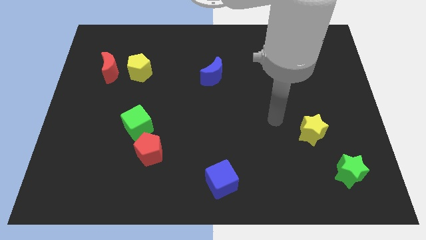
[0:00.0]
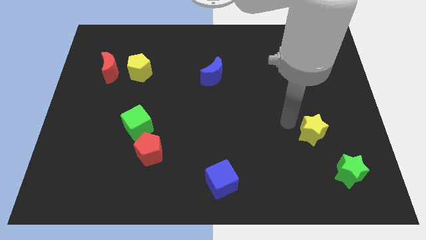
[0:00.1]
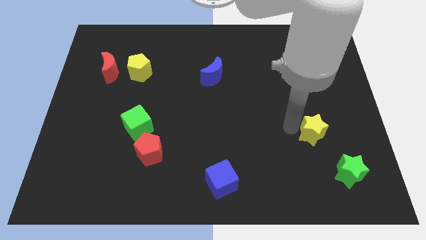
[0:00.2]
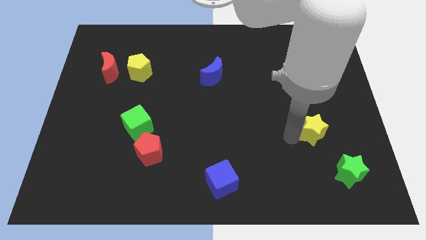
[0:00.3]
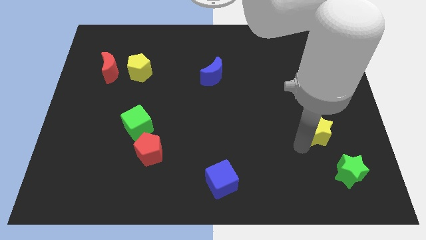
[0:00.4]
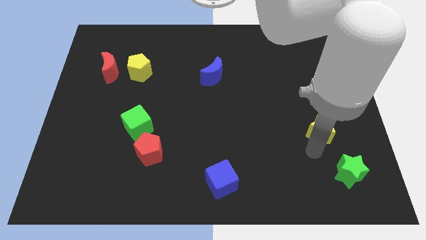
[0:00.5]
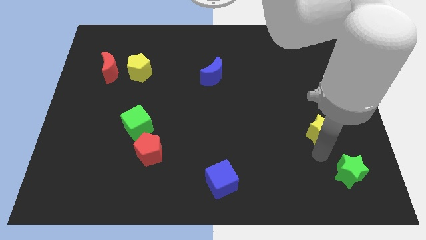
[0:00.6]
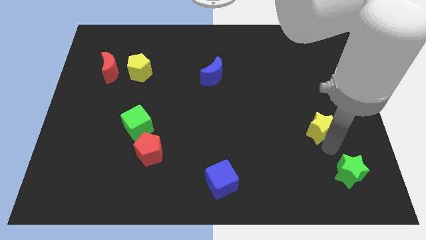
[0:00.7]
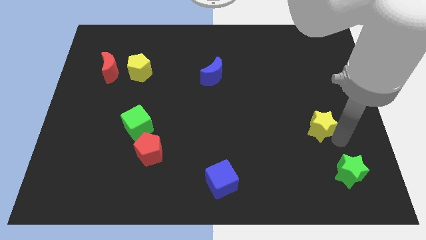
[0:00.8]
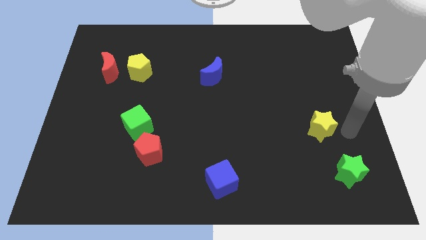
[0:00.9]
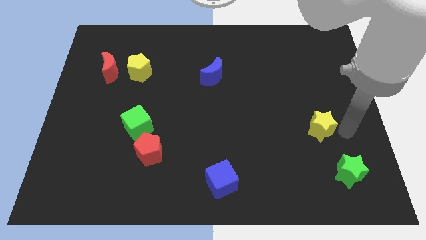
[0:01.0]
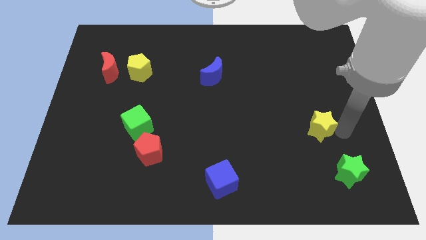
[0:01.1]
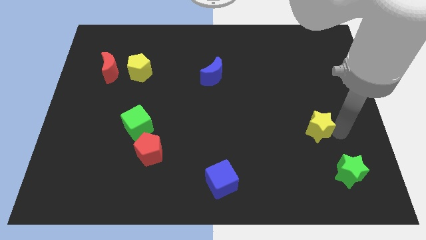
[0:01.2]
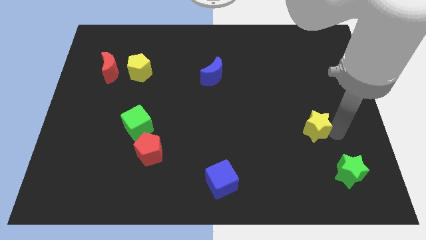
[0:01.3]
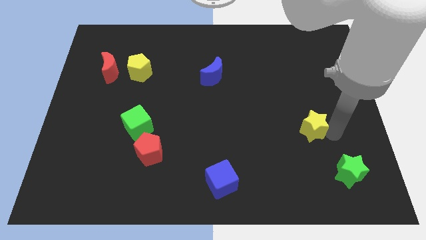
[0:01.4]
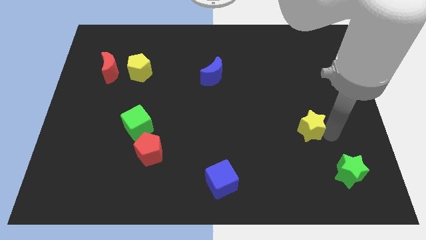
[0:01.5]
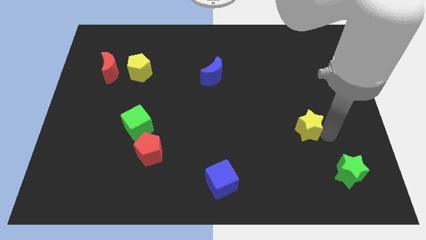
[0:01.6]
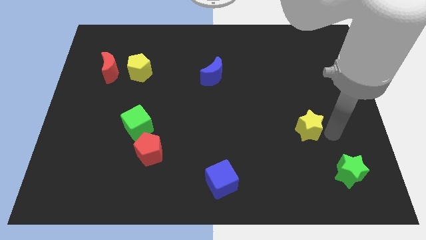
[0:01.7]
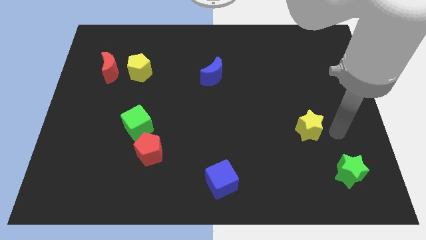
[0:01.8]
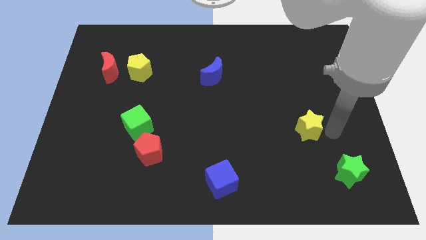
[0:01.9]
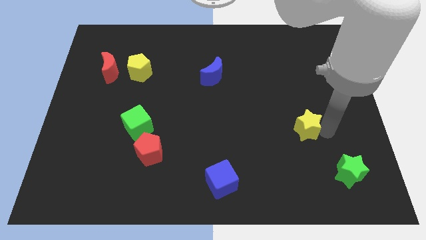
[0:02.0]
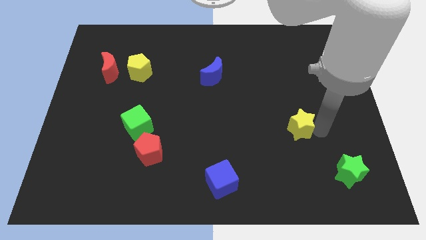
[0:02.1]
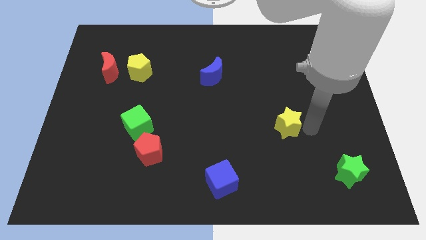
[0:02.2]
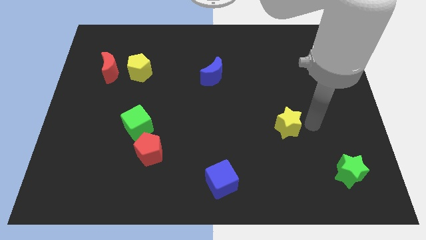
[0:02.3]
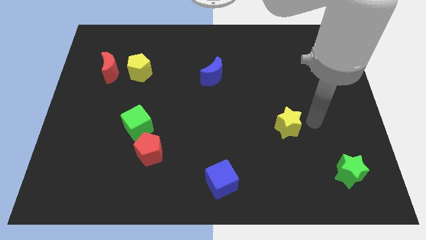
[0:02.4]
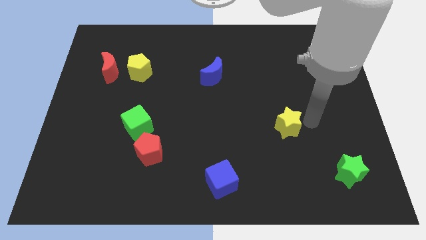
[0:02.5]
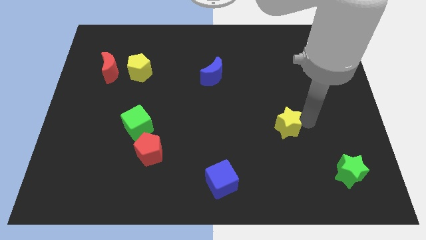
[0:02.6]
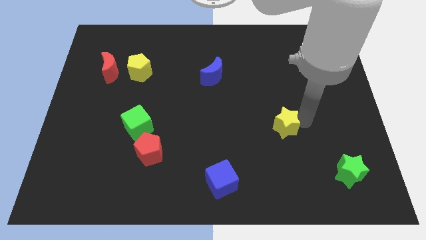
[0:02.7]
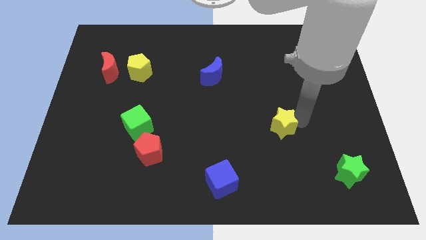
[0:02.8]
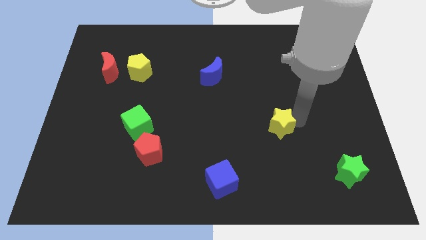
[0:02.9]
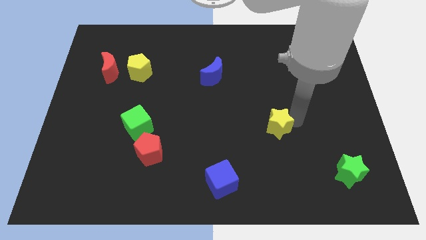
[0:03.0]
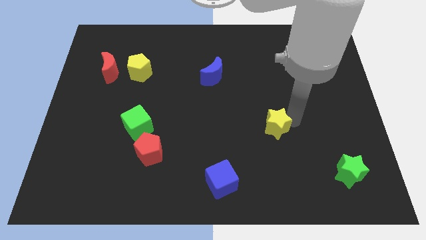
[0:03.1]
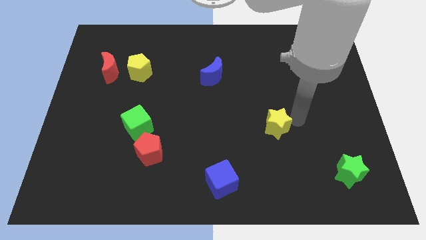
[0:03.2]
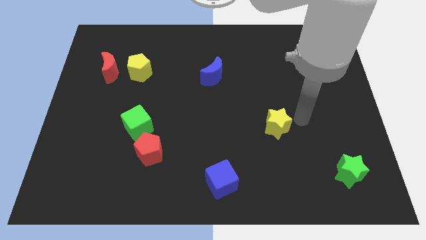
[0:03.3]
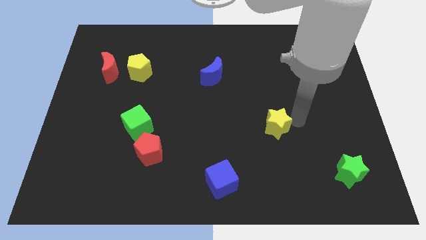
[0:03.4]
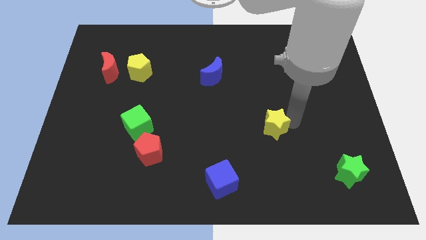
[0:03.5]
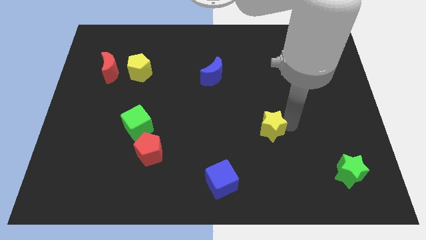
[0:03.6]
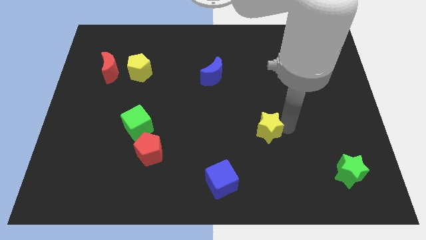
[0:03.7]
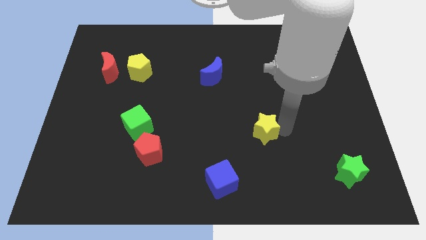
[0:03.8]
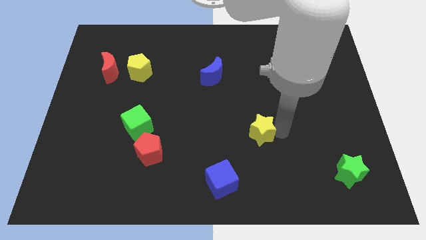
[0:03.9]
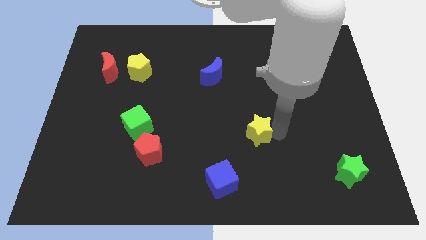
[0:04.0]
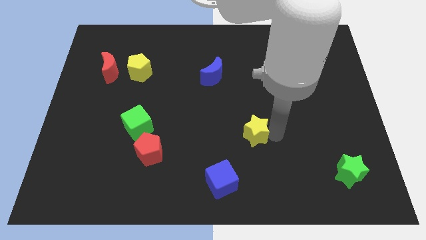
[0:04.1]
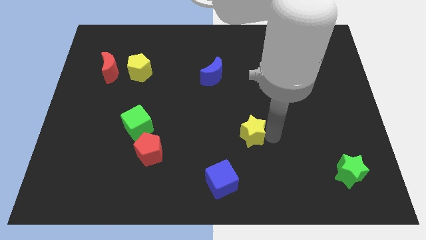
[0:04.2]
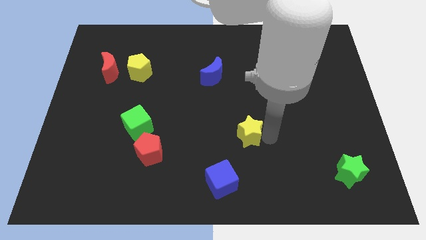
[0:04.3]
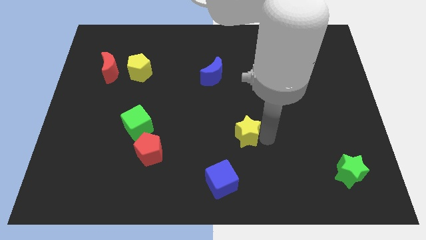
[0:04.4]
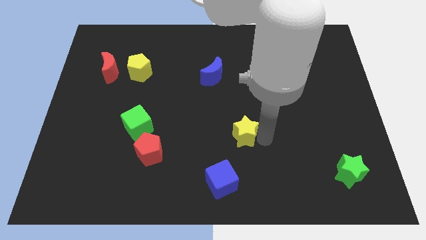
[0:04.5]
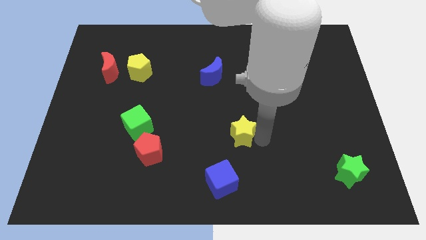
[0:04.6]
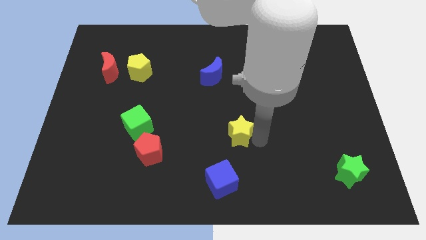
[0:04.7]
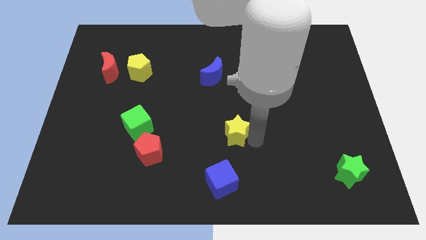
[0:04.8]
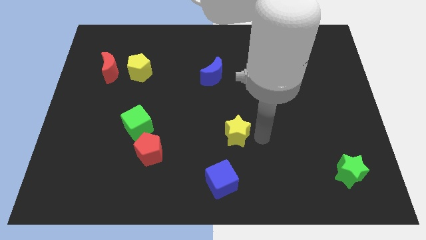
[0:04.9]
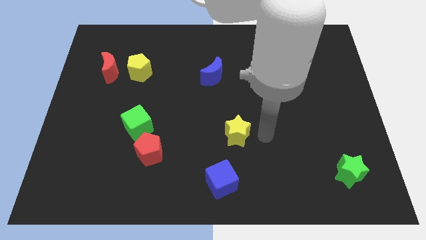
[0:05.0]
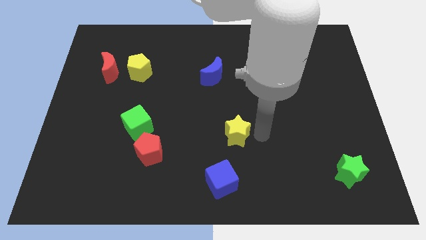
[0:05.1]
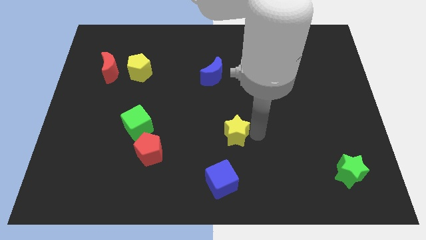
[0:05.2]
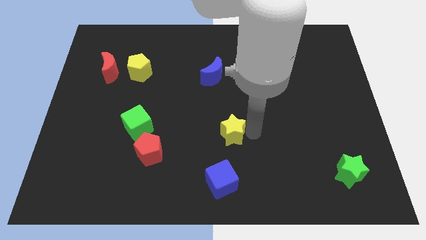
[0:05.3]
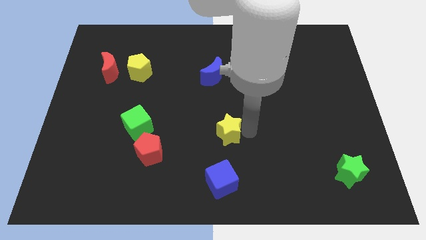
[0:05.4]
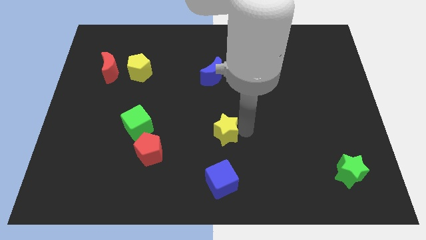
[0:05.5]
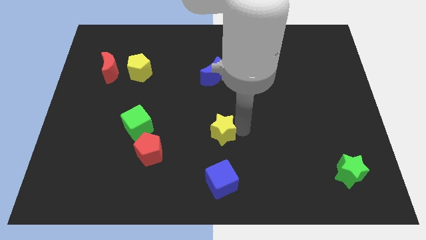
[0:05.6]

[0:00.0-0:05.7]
push the yellow star left

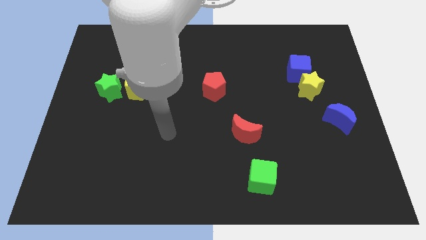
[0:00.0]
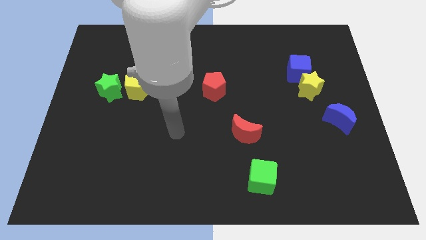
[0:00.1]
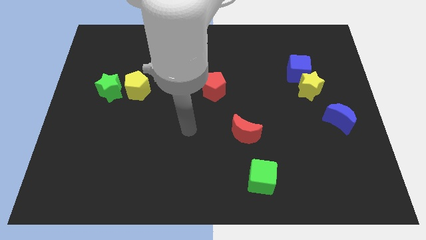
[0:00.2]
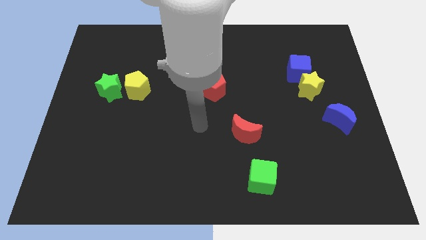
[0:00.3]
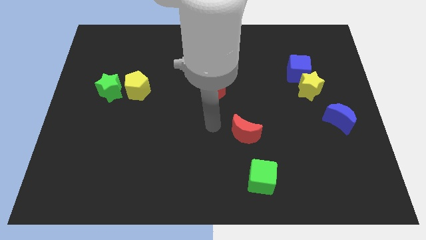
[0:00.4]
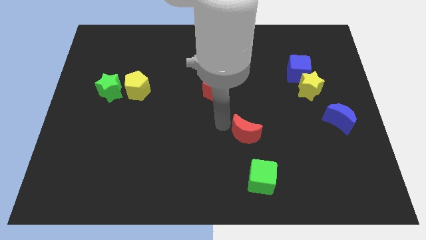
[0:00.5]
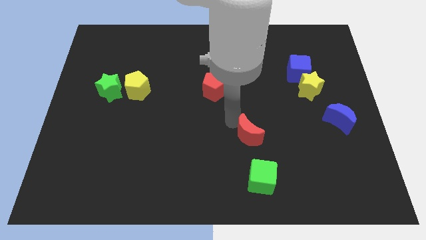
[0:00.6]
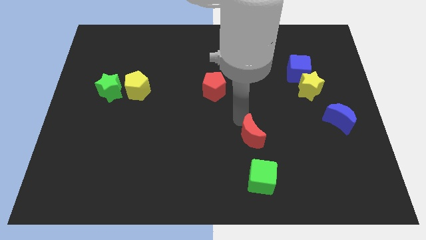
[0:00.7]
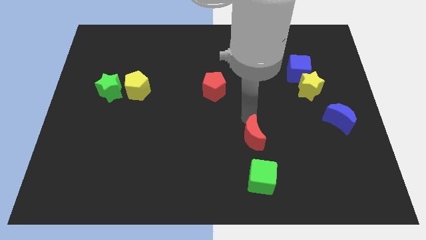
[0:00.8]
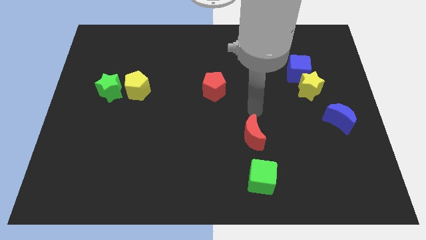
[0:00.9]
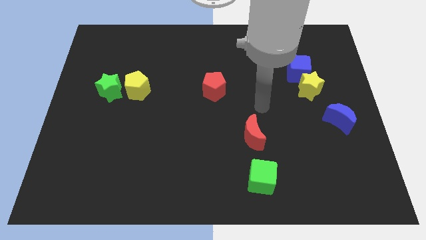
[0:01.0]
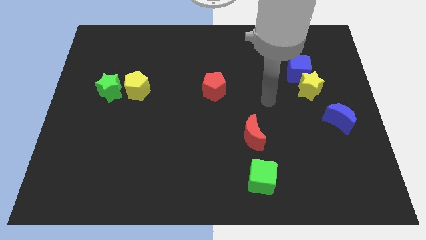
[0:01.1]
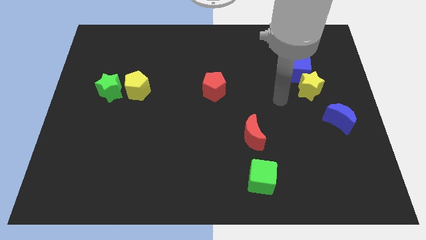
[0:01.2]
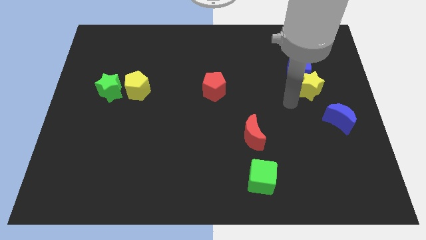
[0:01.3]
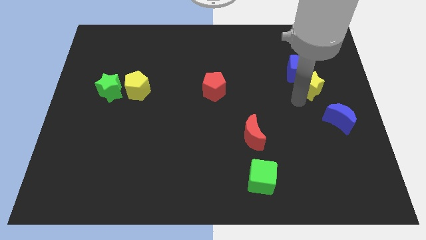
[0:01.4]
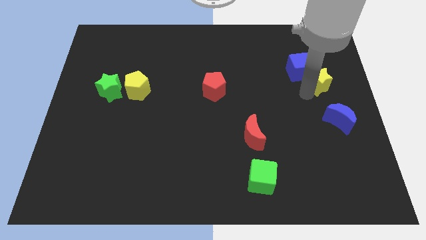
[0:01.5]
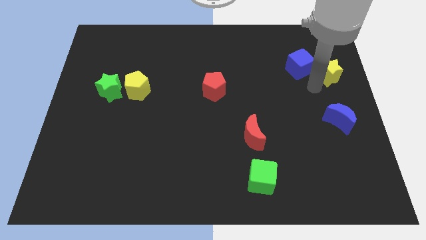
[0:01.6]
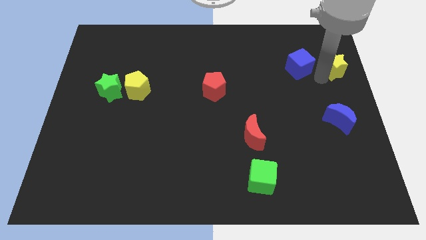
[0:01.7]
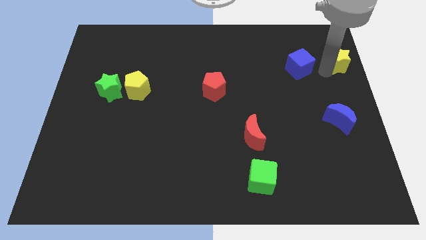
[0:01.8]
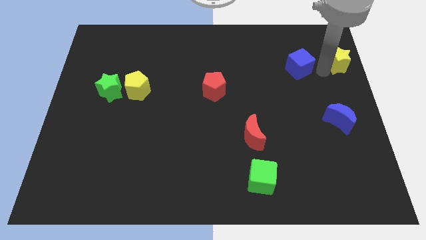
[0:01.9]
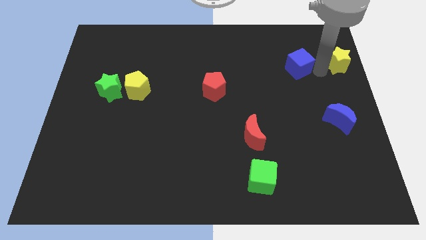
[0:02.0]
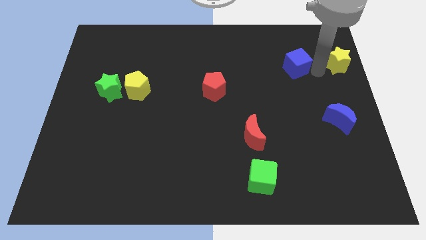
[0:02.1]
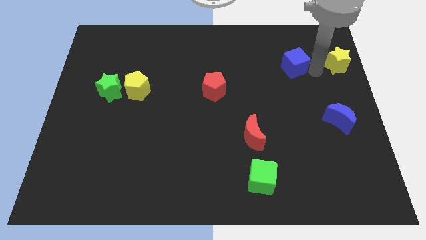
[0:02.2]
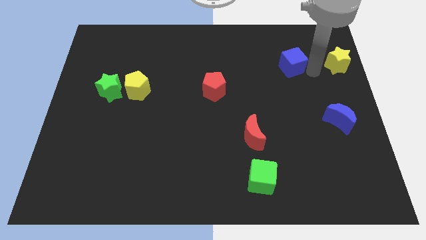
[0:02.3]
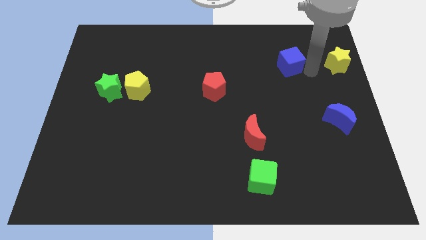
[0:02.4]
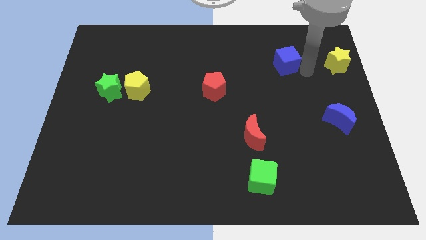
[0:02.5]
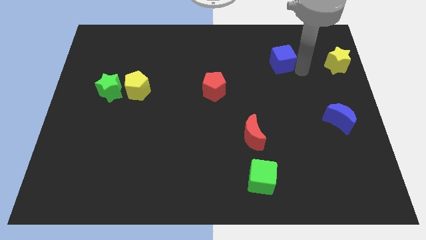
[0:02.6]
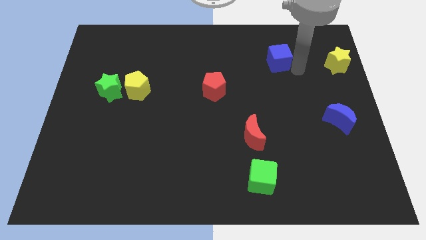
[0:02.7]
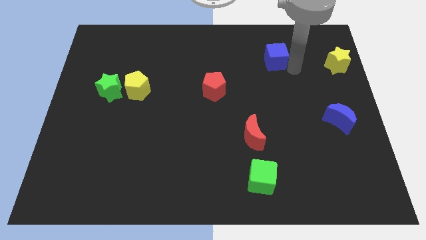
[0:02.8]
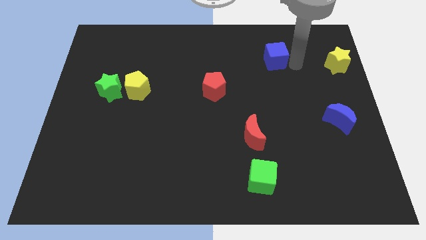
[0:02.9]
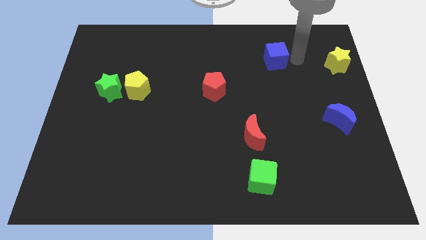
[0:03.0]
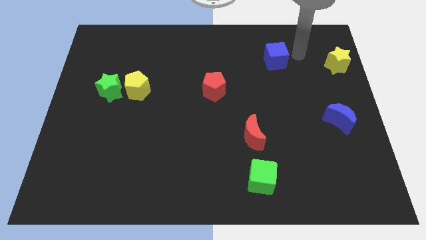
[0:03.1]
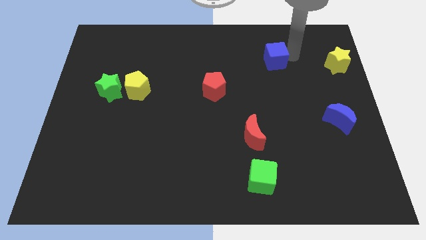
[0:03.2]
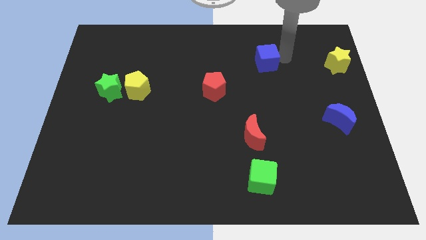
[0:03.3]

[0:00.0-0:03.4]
slide the blue cube a bit left
